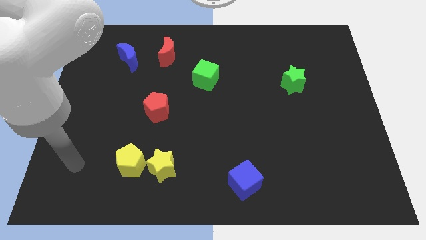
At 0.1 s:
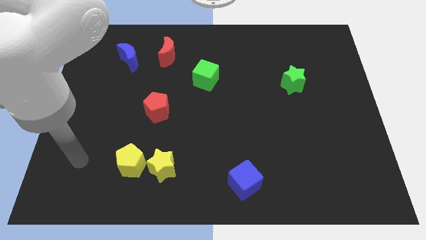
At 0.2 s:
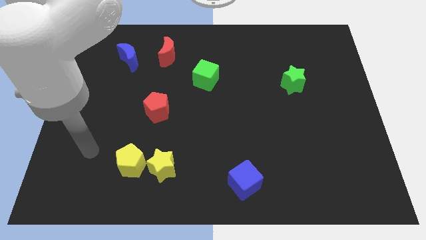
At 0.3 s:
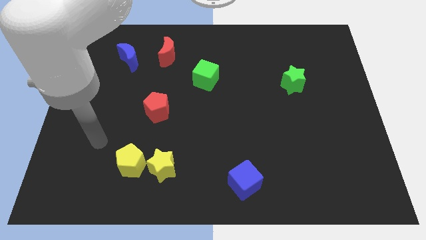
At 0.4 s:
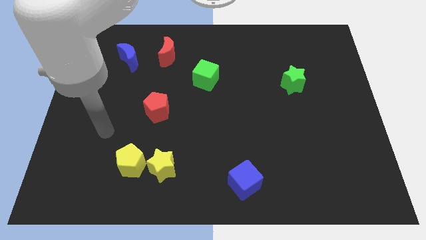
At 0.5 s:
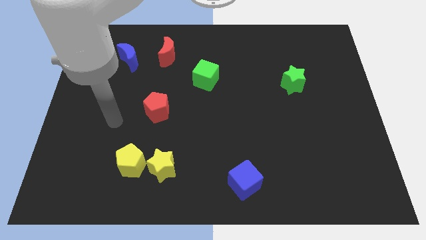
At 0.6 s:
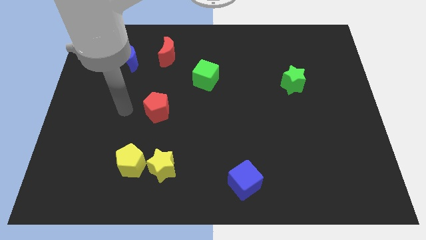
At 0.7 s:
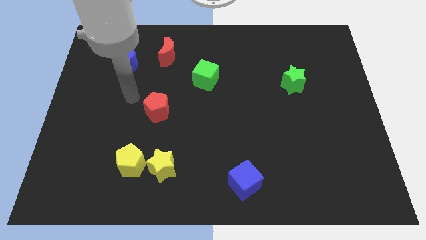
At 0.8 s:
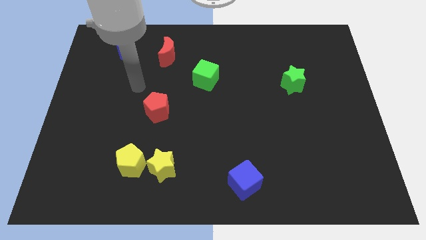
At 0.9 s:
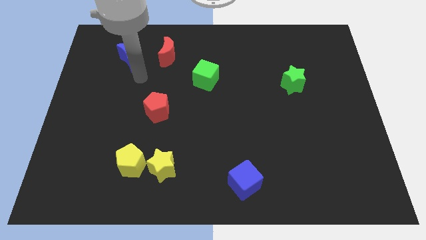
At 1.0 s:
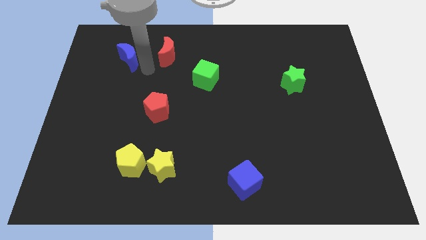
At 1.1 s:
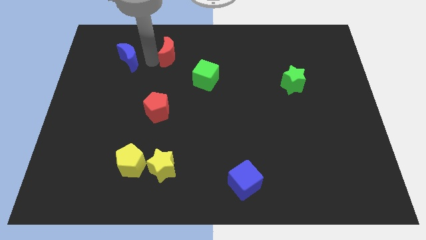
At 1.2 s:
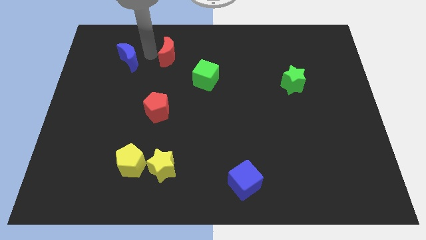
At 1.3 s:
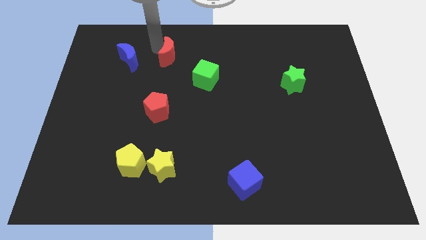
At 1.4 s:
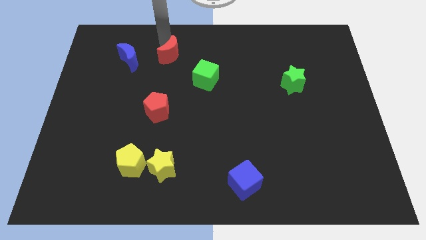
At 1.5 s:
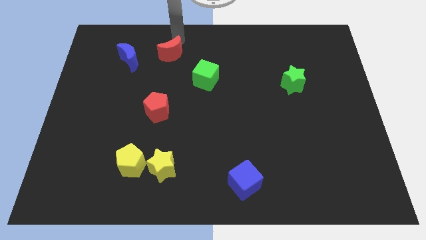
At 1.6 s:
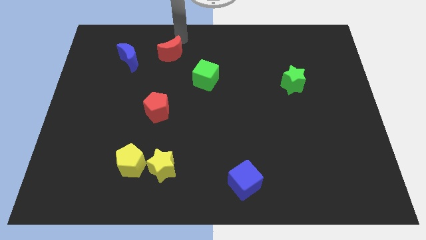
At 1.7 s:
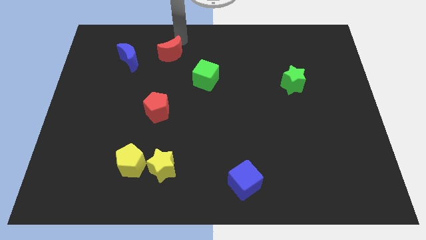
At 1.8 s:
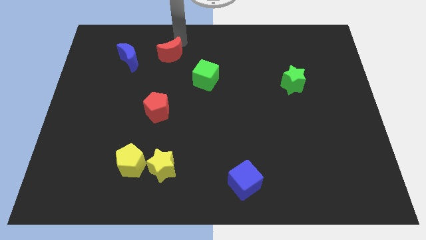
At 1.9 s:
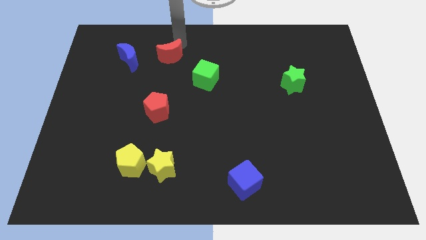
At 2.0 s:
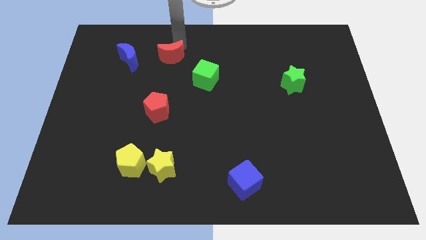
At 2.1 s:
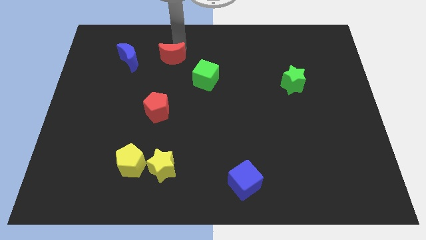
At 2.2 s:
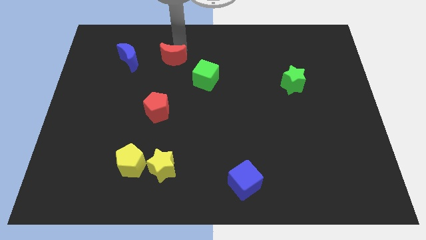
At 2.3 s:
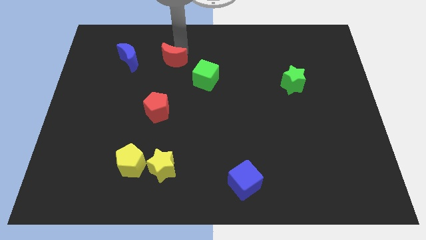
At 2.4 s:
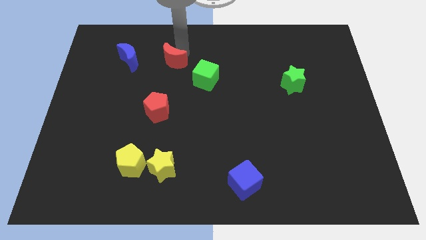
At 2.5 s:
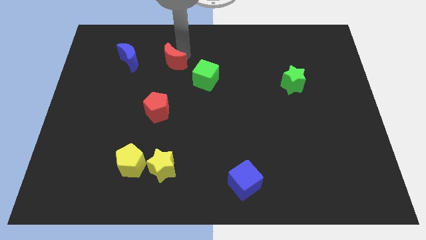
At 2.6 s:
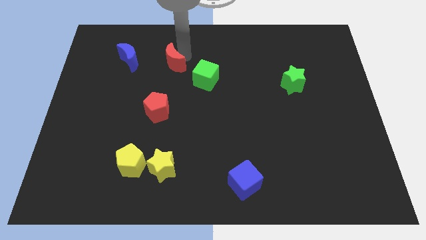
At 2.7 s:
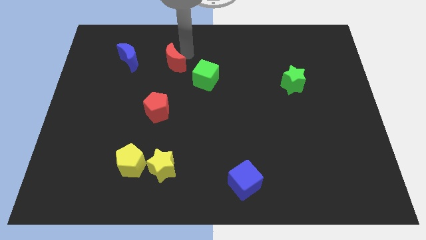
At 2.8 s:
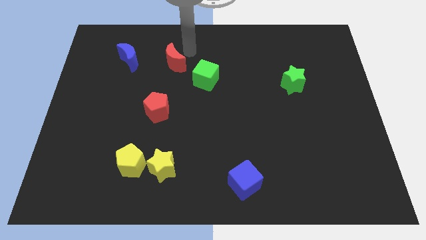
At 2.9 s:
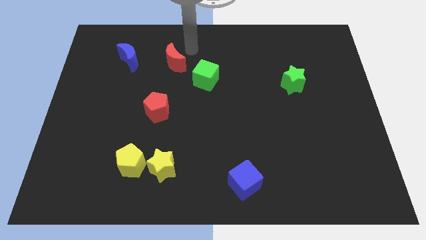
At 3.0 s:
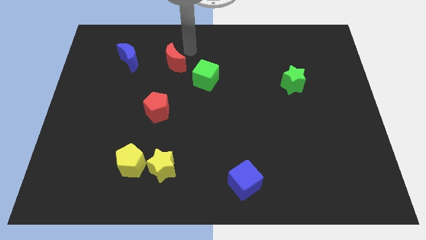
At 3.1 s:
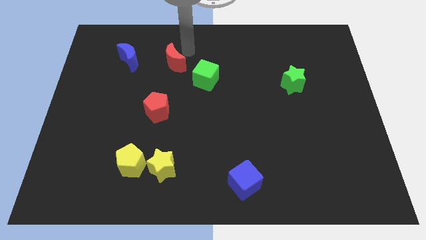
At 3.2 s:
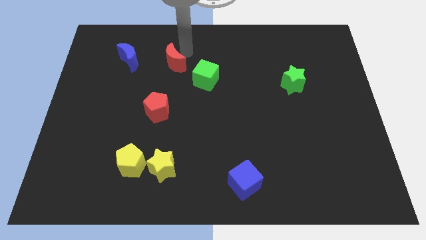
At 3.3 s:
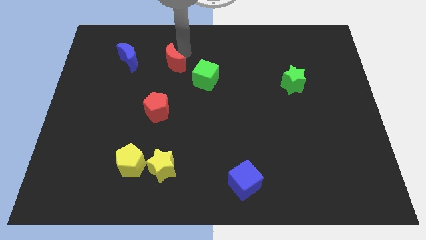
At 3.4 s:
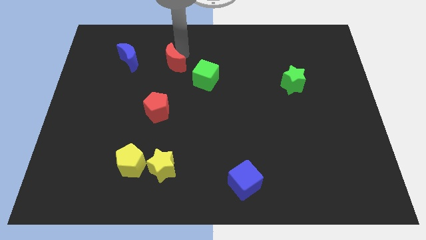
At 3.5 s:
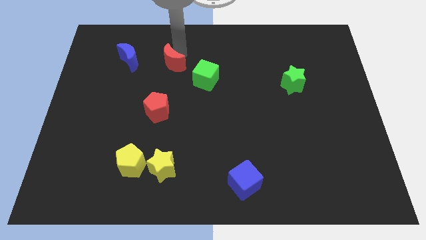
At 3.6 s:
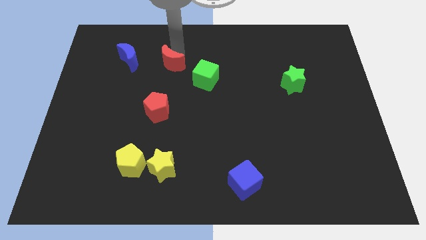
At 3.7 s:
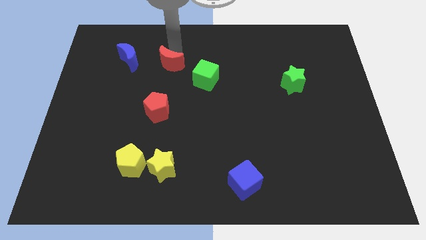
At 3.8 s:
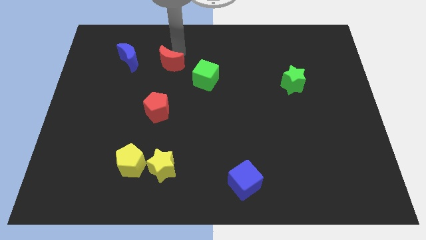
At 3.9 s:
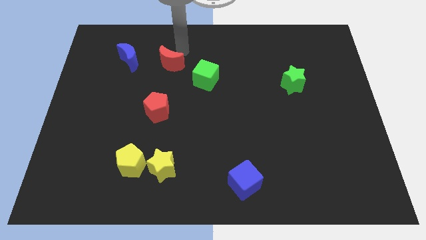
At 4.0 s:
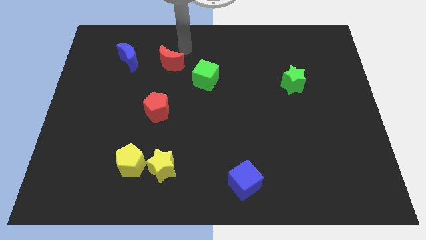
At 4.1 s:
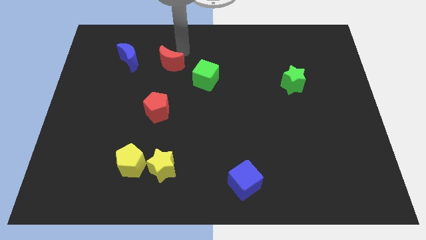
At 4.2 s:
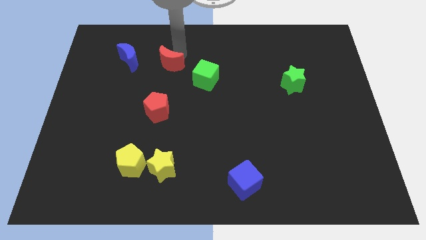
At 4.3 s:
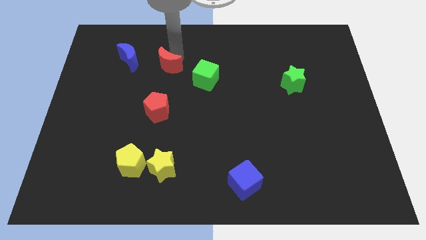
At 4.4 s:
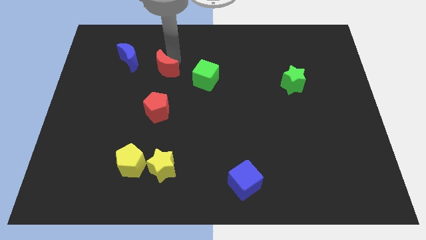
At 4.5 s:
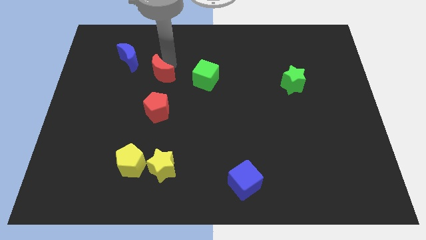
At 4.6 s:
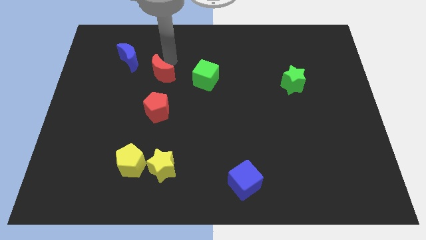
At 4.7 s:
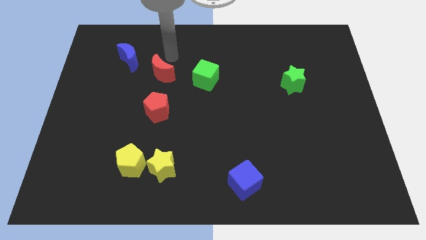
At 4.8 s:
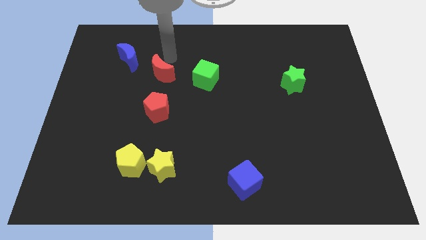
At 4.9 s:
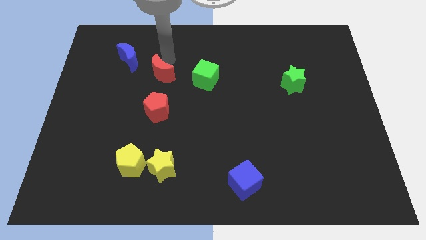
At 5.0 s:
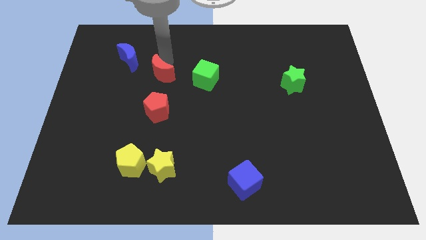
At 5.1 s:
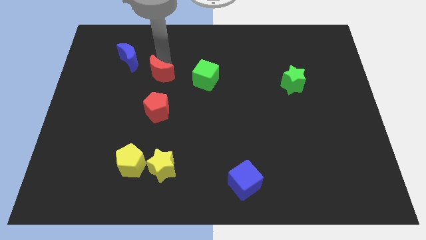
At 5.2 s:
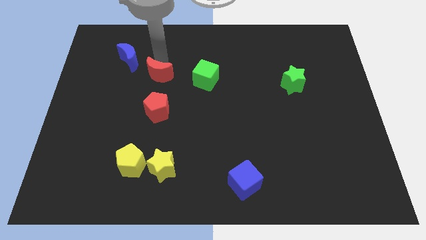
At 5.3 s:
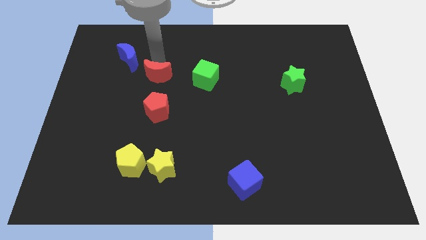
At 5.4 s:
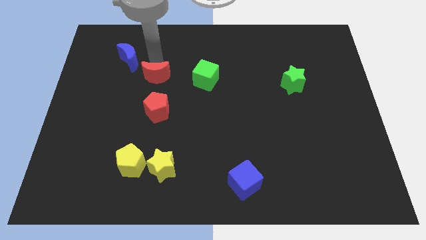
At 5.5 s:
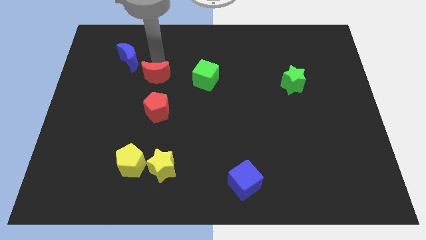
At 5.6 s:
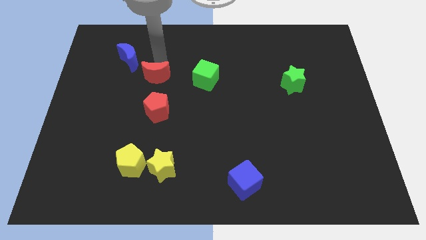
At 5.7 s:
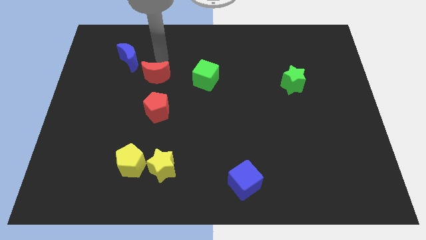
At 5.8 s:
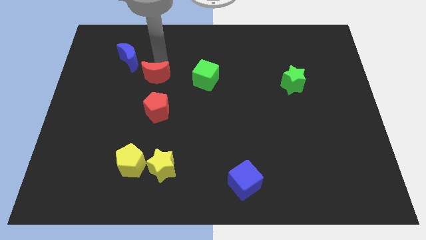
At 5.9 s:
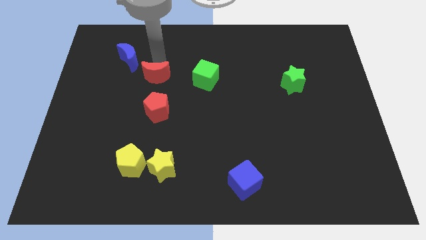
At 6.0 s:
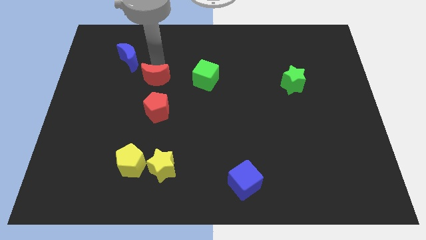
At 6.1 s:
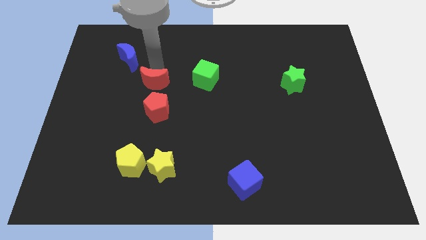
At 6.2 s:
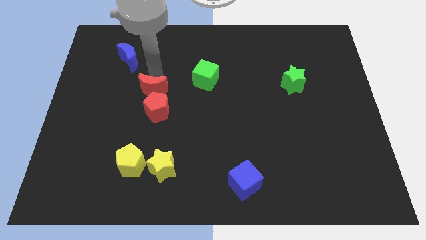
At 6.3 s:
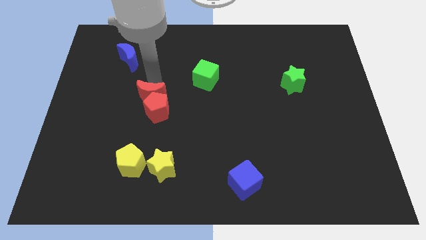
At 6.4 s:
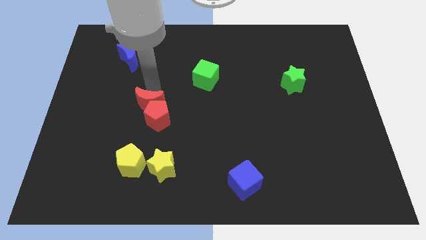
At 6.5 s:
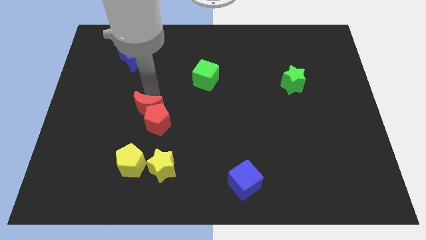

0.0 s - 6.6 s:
move the red moon to the top side of the yellow pentagon
